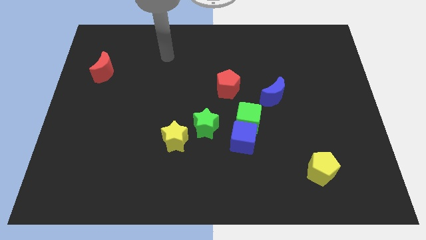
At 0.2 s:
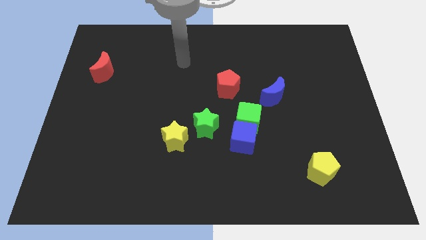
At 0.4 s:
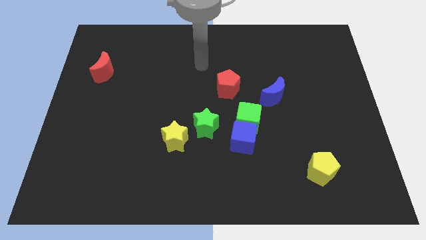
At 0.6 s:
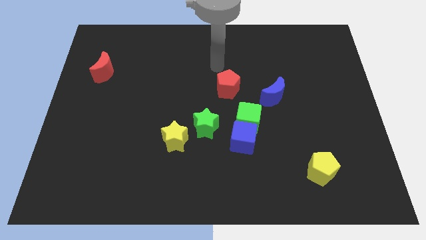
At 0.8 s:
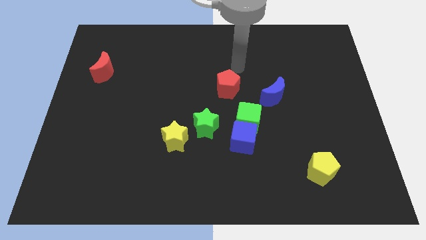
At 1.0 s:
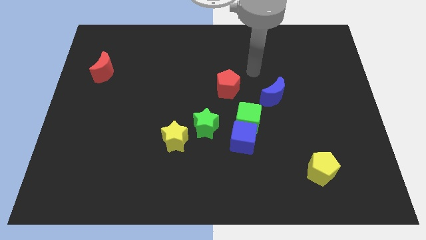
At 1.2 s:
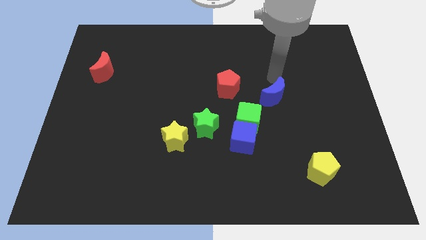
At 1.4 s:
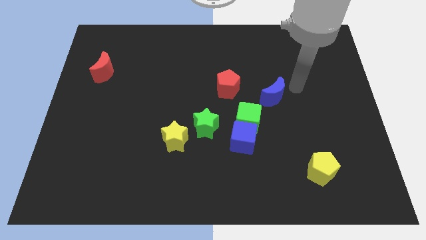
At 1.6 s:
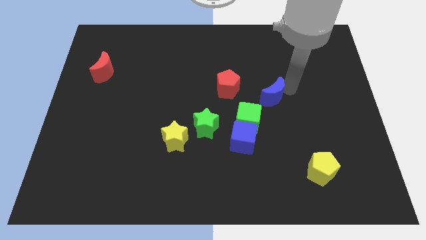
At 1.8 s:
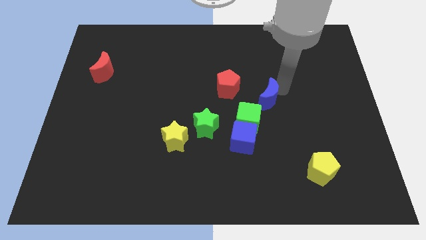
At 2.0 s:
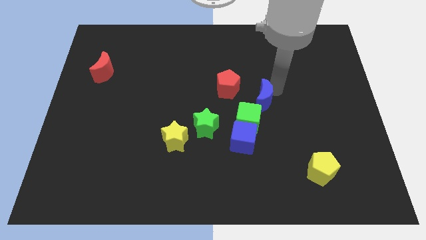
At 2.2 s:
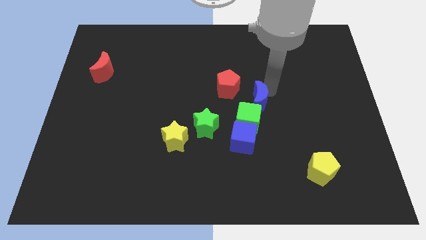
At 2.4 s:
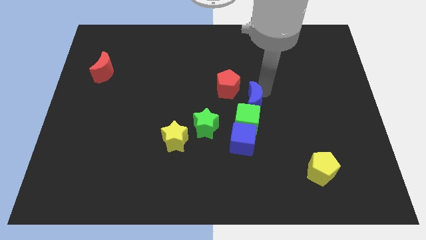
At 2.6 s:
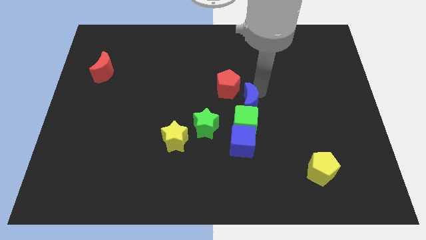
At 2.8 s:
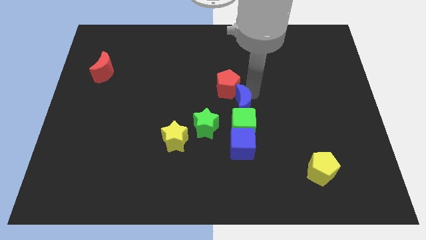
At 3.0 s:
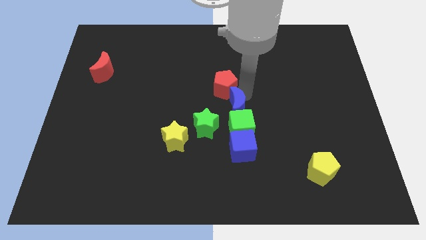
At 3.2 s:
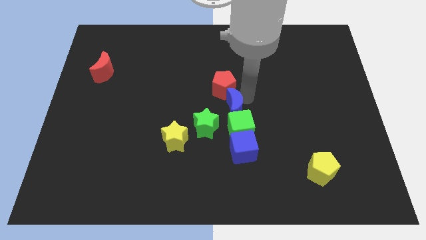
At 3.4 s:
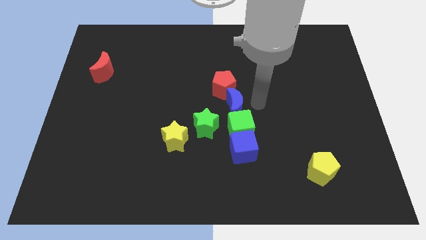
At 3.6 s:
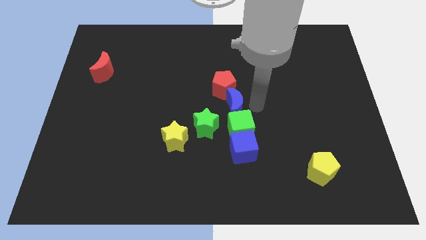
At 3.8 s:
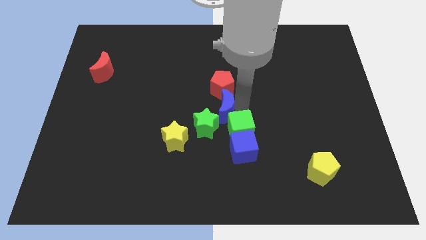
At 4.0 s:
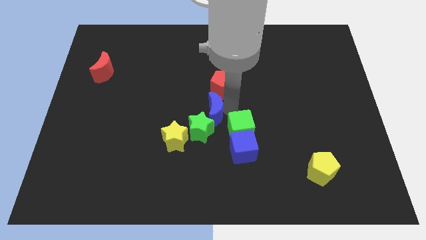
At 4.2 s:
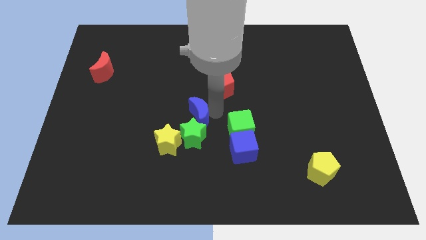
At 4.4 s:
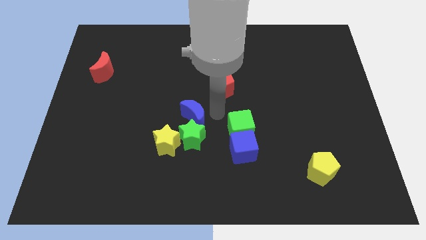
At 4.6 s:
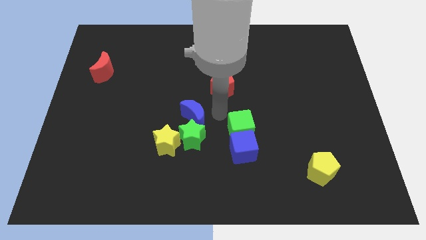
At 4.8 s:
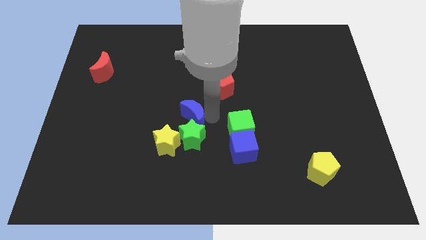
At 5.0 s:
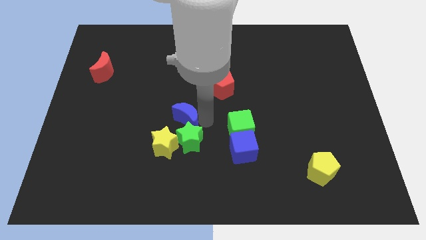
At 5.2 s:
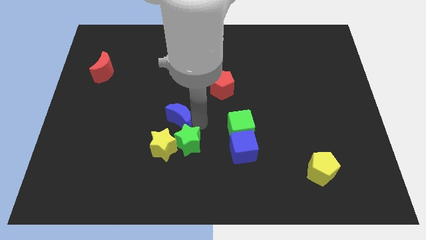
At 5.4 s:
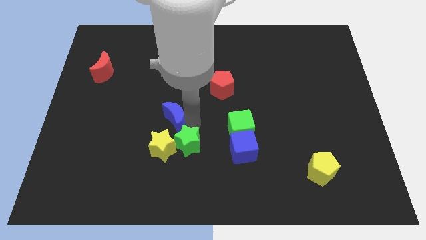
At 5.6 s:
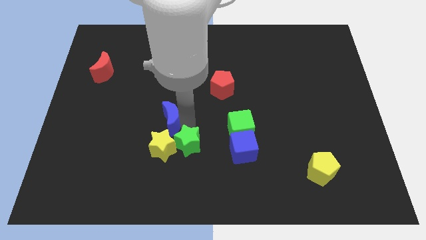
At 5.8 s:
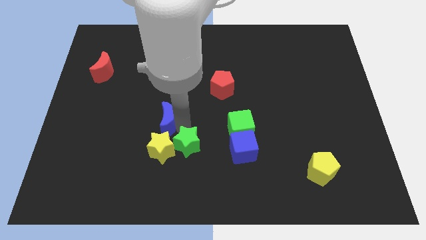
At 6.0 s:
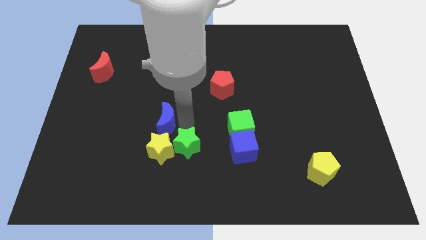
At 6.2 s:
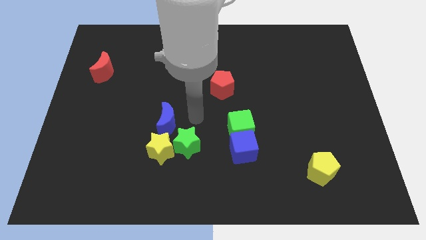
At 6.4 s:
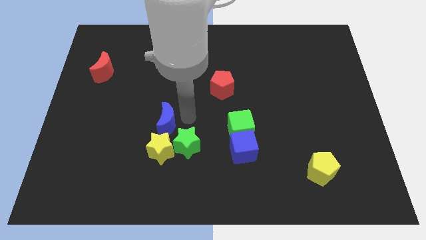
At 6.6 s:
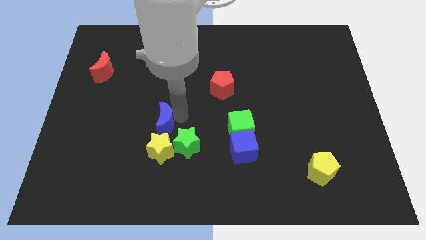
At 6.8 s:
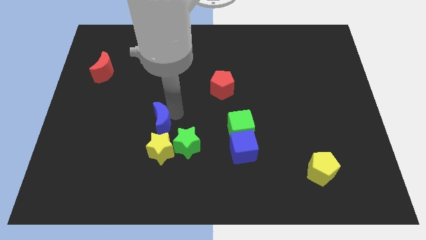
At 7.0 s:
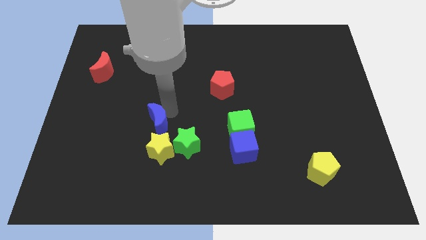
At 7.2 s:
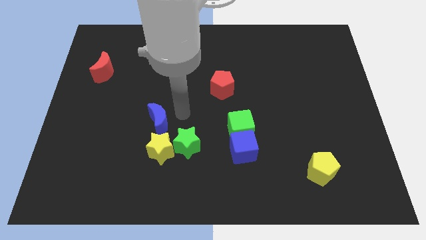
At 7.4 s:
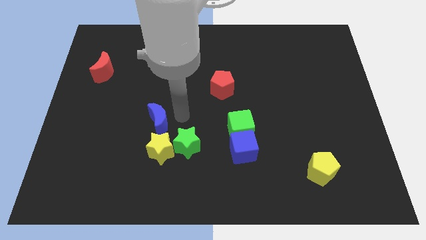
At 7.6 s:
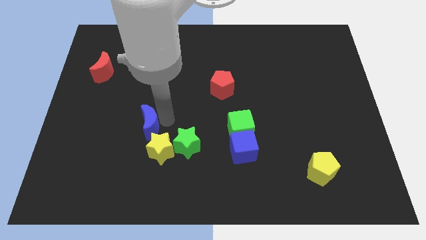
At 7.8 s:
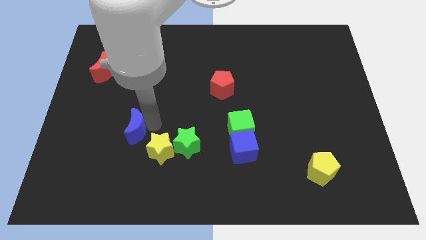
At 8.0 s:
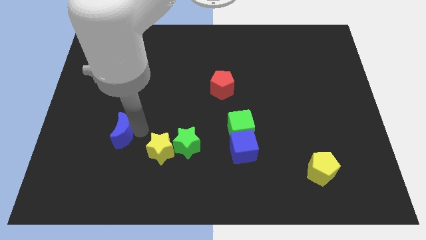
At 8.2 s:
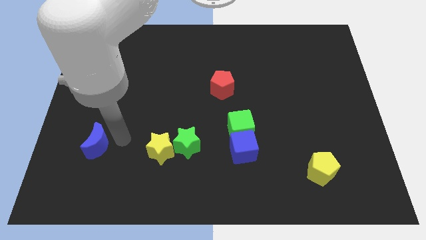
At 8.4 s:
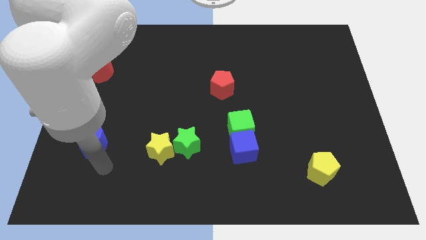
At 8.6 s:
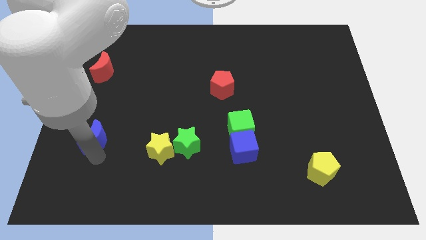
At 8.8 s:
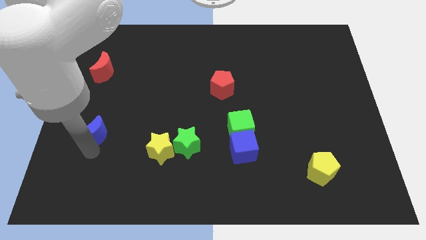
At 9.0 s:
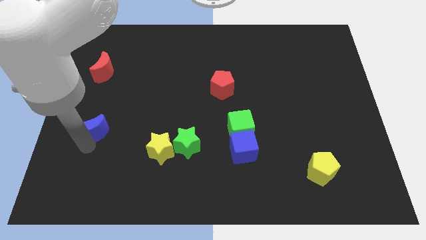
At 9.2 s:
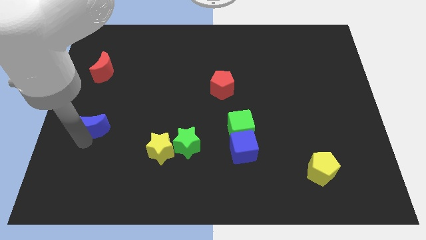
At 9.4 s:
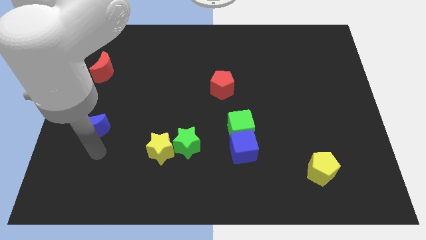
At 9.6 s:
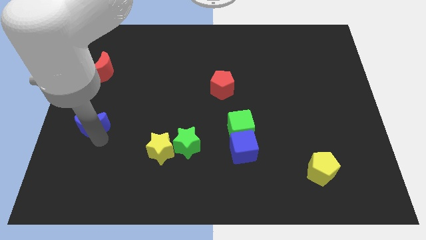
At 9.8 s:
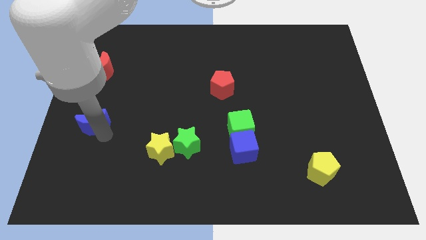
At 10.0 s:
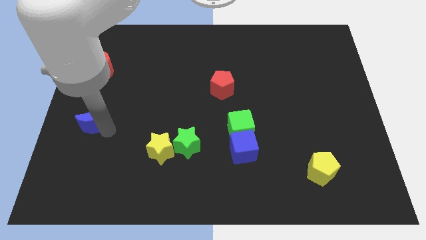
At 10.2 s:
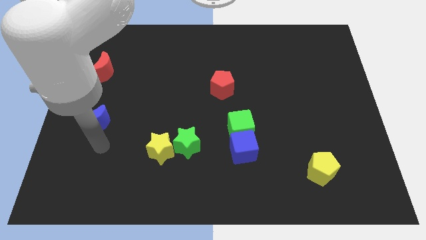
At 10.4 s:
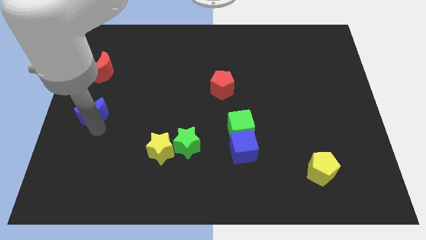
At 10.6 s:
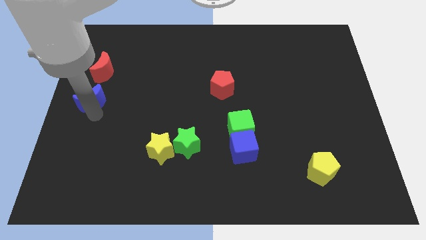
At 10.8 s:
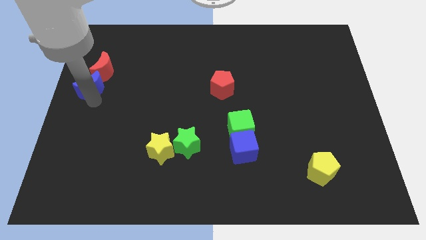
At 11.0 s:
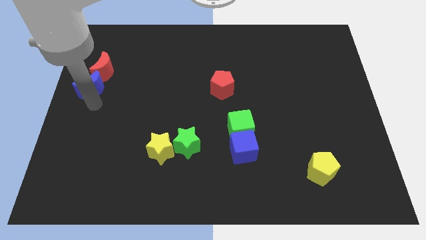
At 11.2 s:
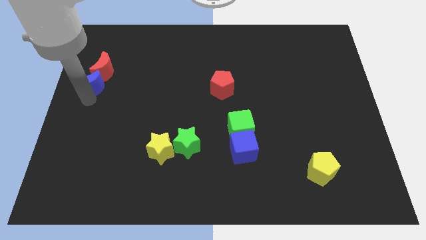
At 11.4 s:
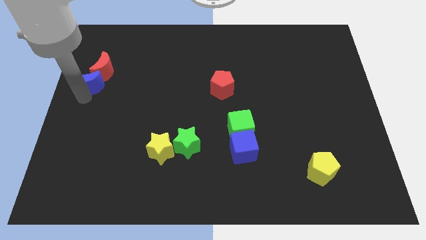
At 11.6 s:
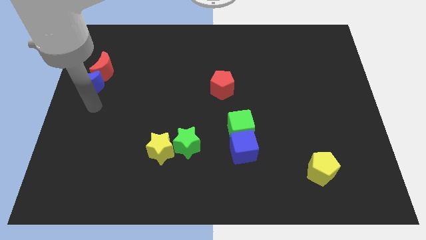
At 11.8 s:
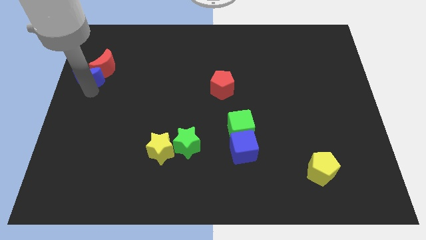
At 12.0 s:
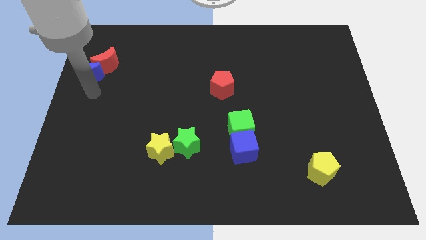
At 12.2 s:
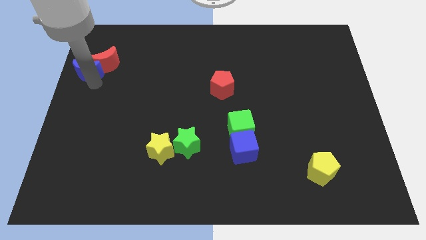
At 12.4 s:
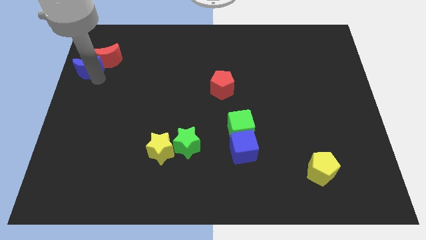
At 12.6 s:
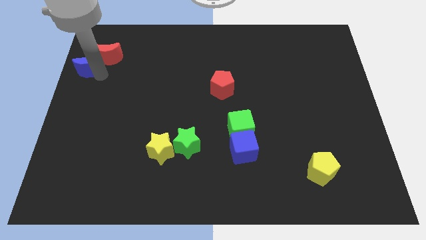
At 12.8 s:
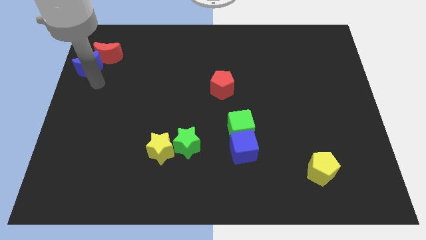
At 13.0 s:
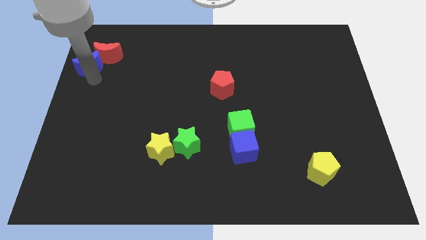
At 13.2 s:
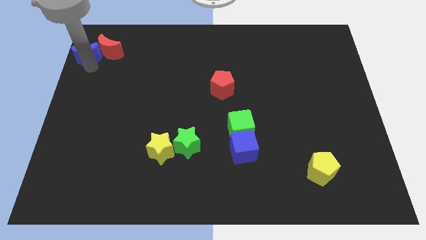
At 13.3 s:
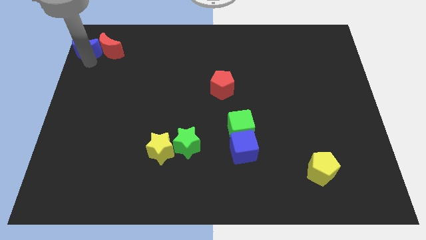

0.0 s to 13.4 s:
move the blue moon to the top left
